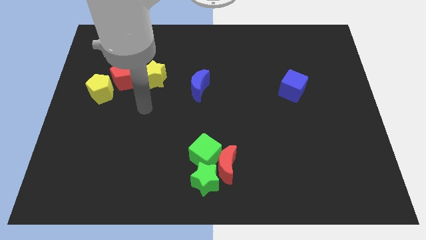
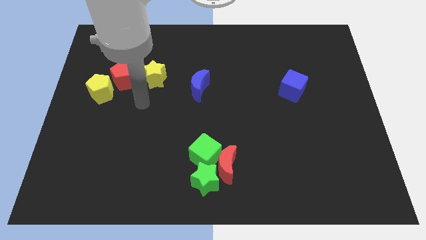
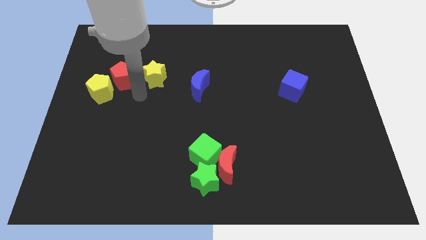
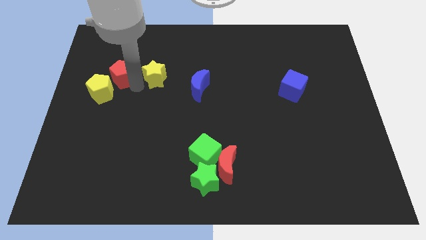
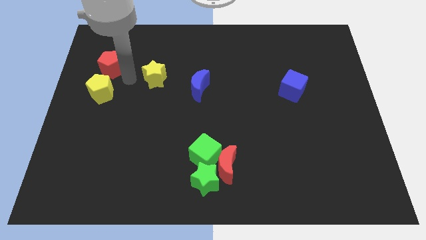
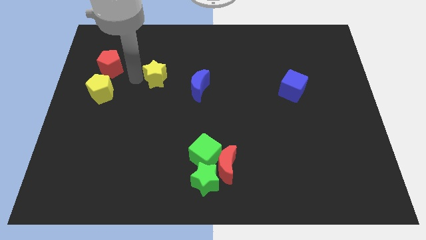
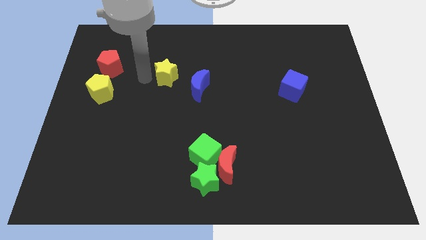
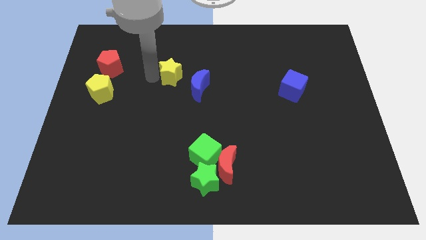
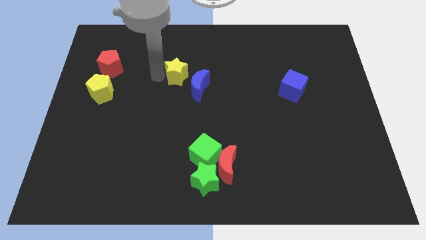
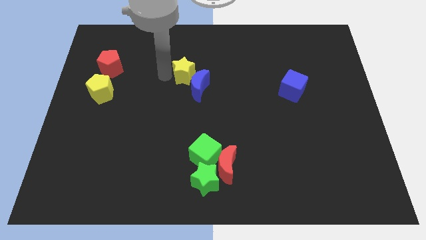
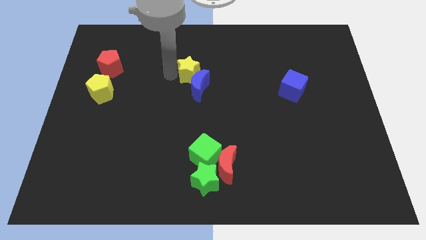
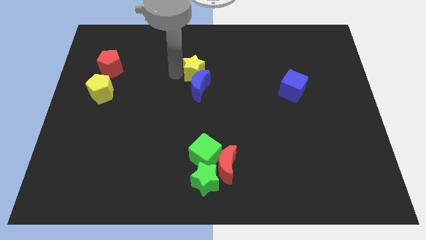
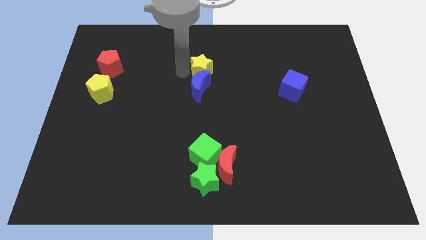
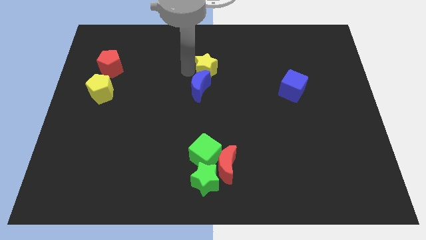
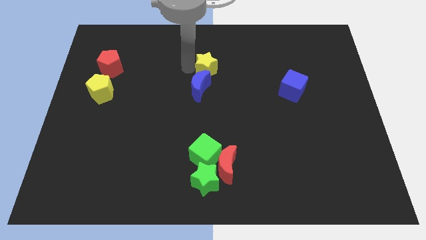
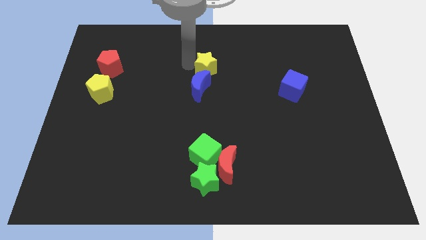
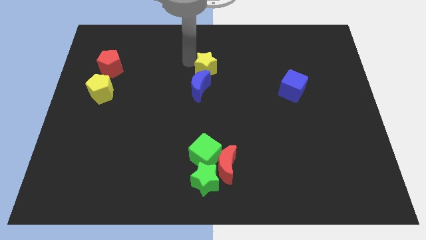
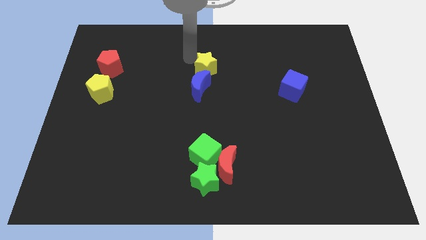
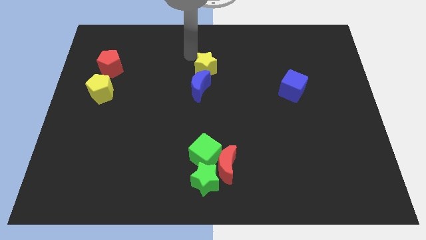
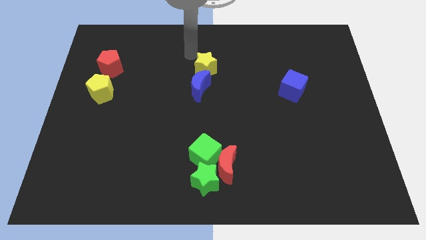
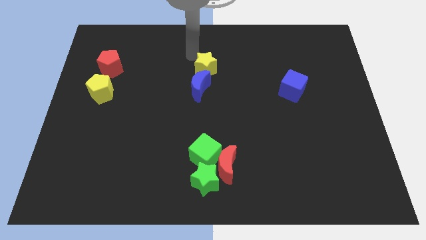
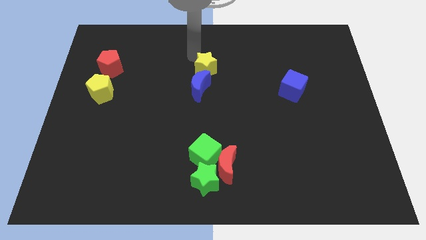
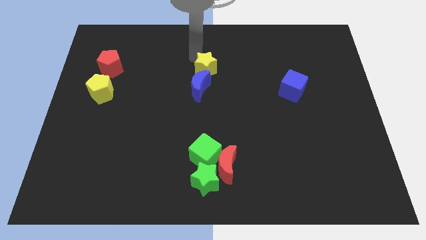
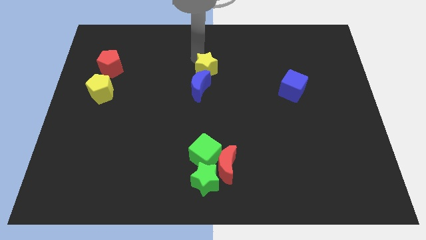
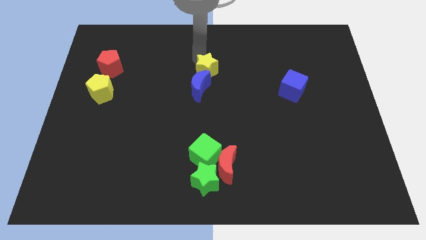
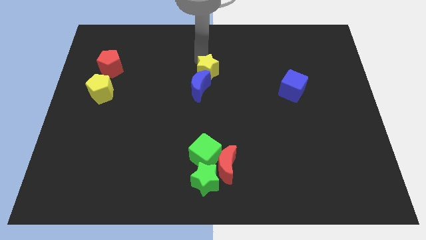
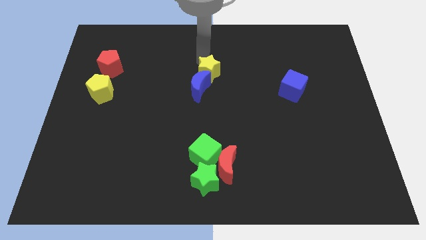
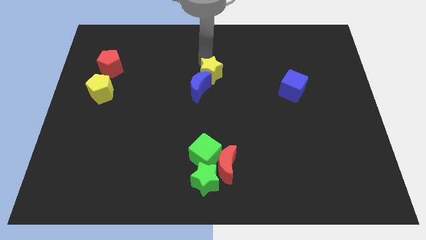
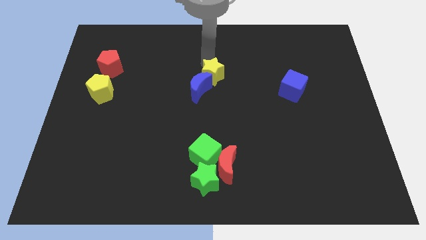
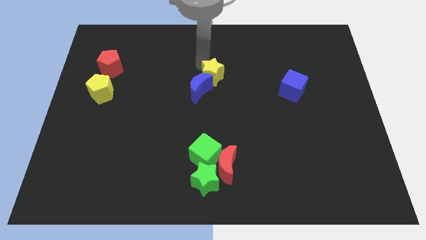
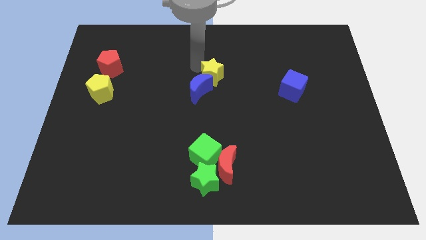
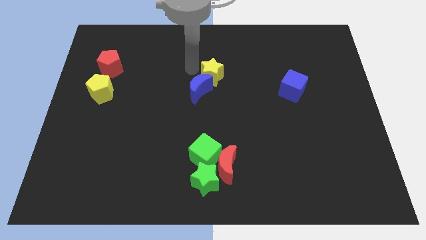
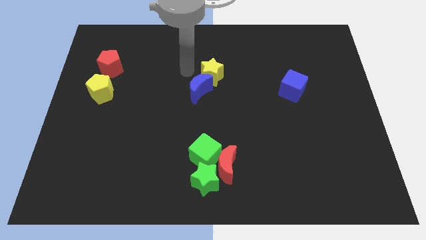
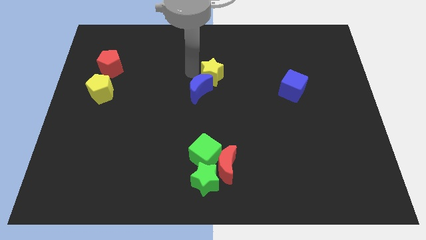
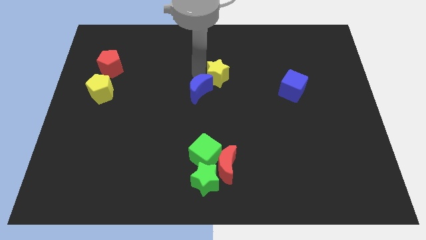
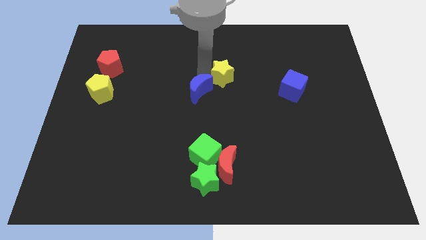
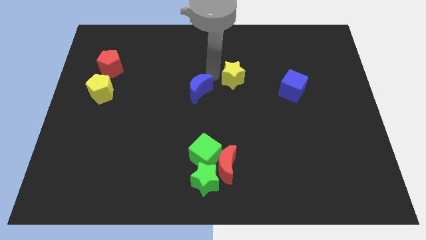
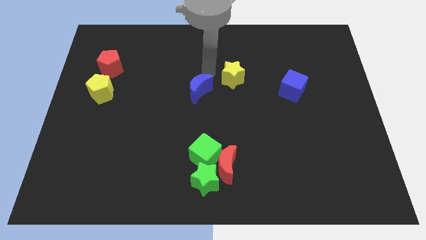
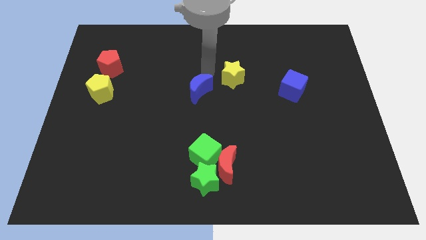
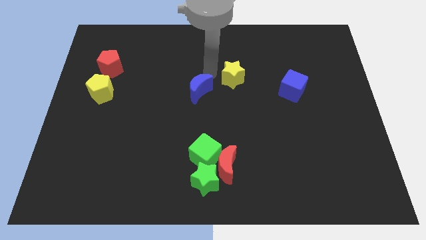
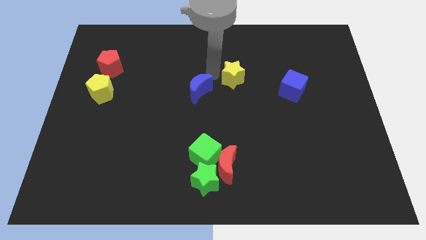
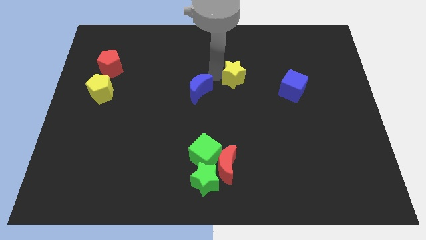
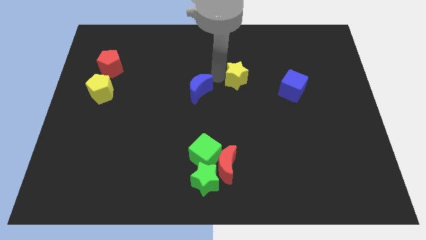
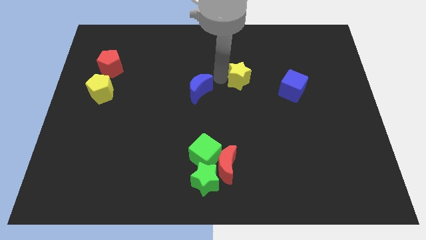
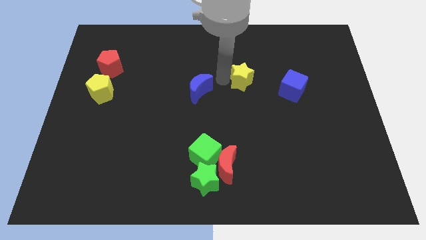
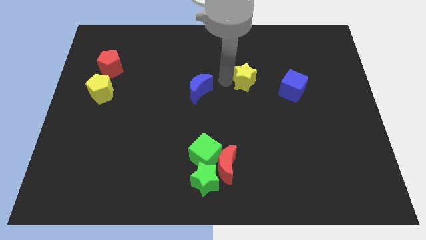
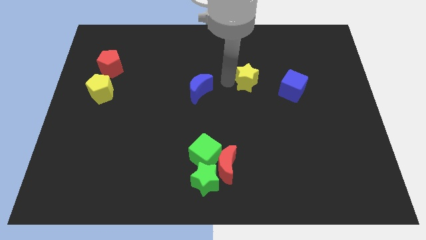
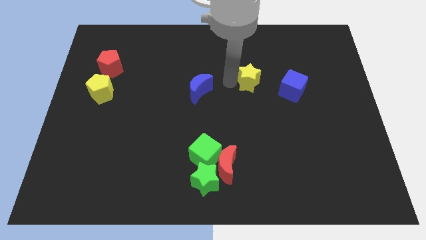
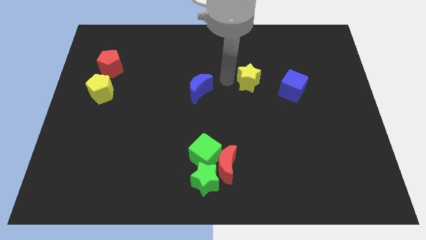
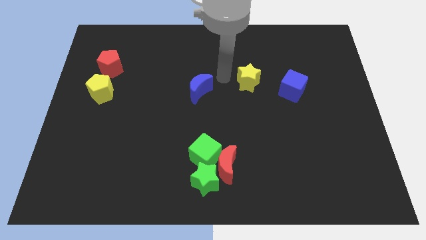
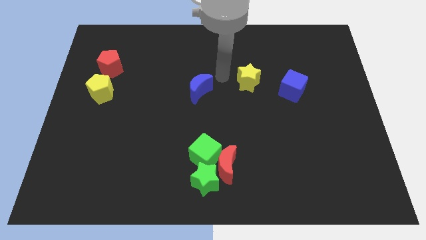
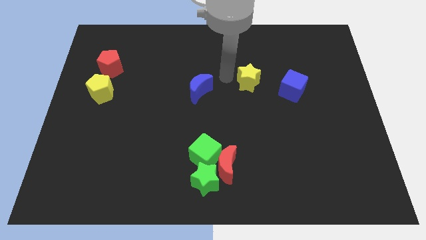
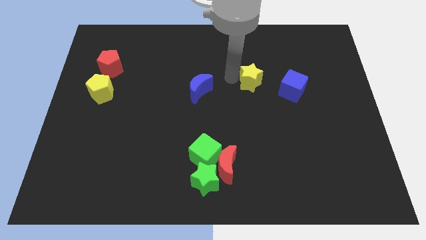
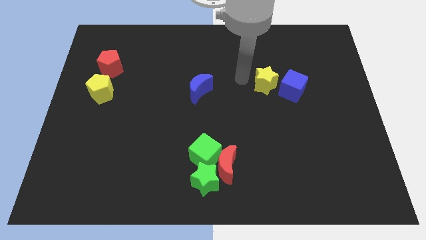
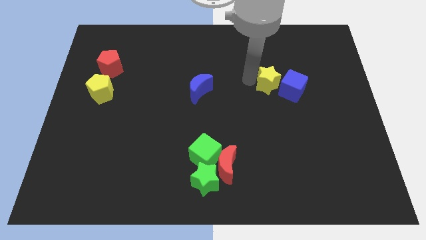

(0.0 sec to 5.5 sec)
push the yellow star towards the blue cube

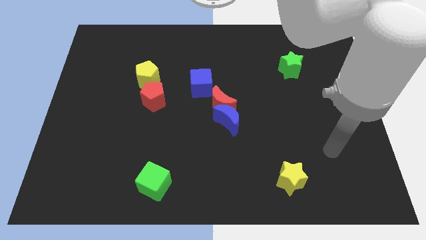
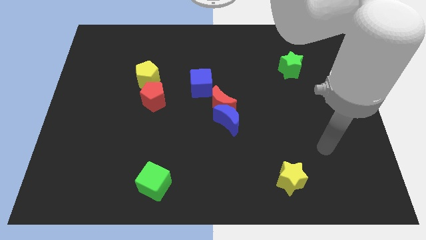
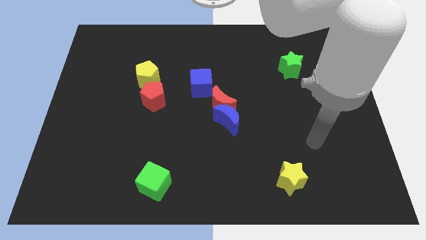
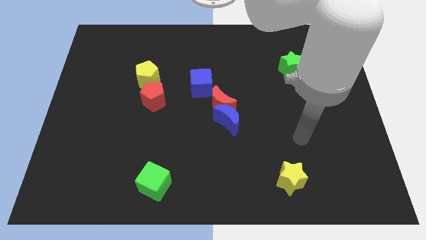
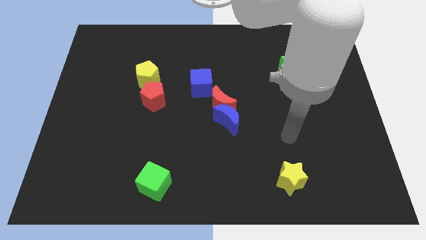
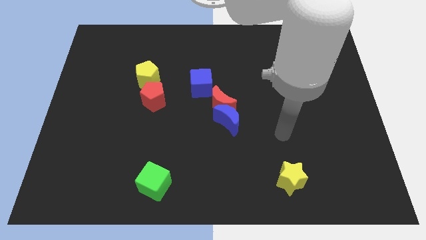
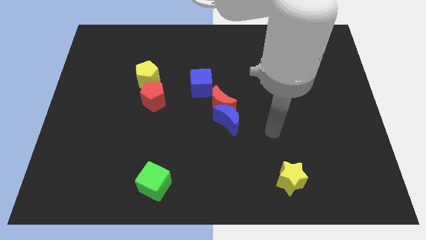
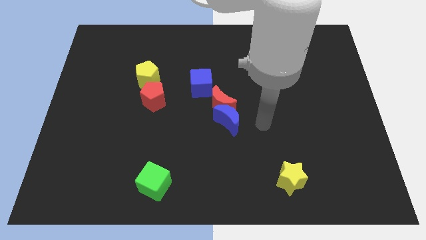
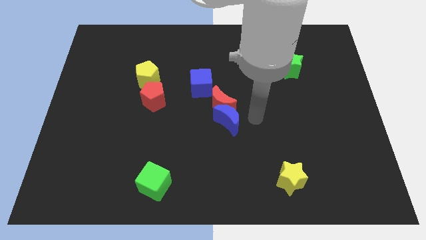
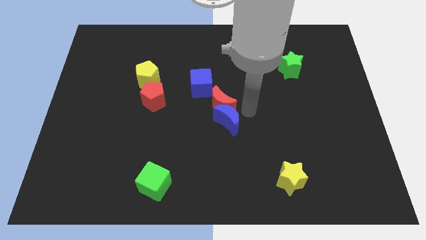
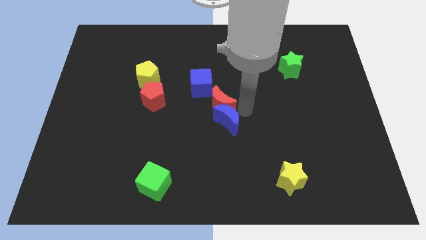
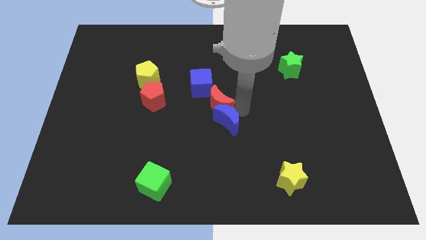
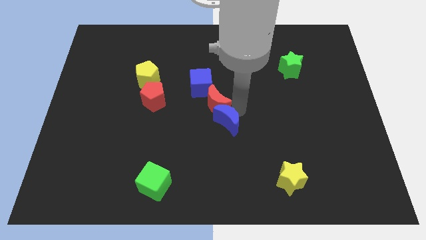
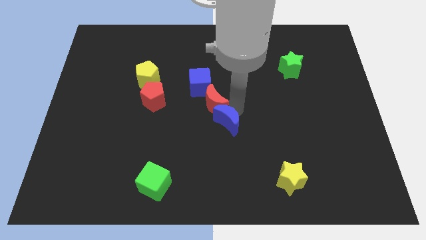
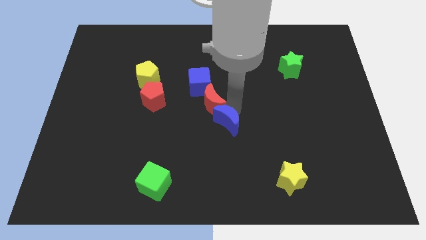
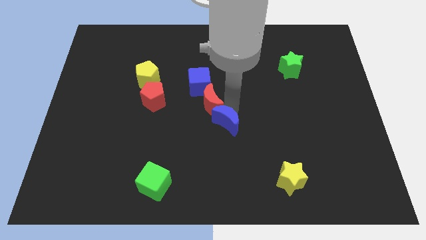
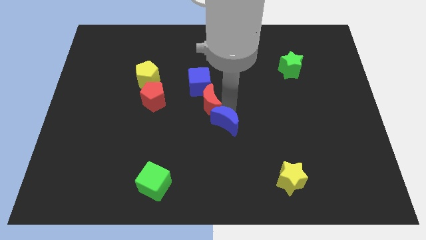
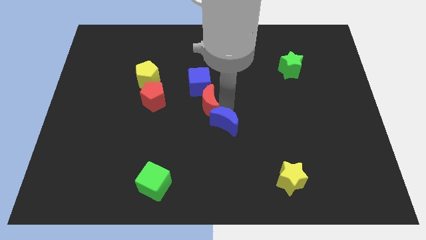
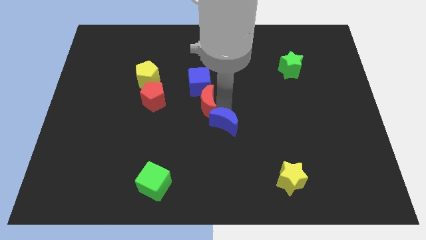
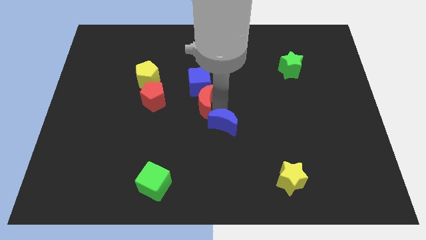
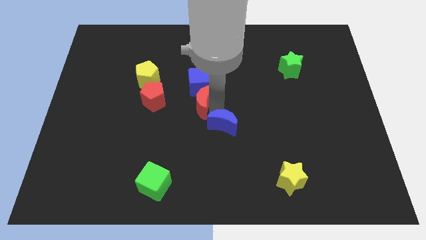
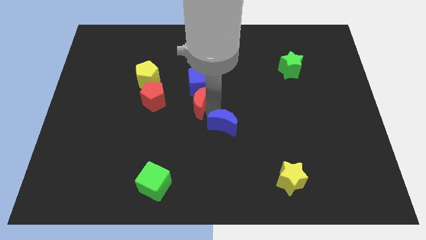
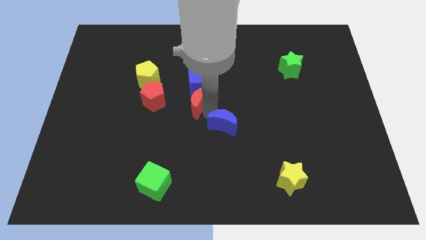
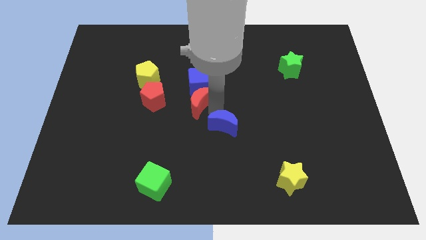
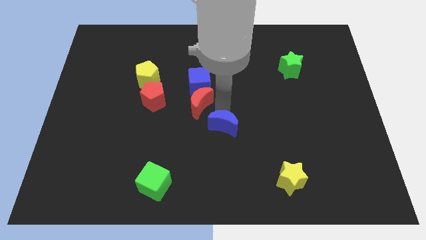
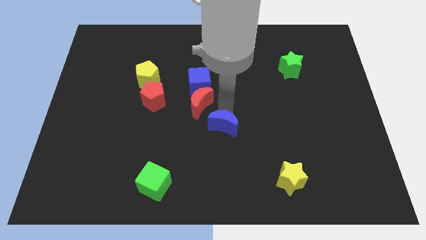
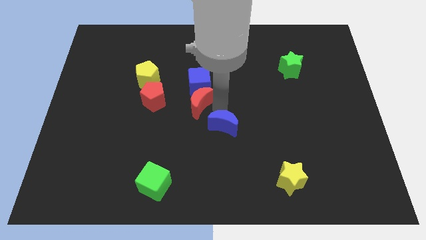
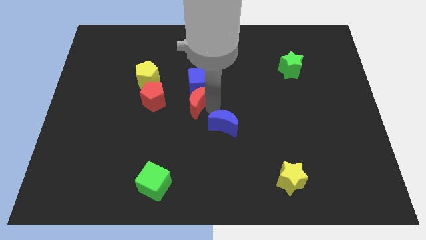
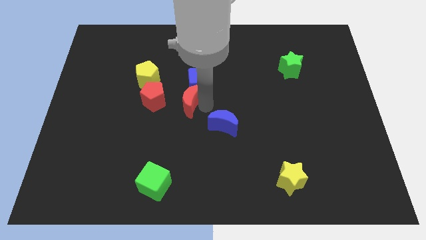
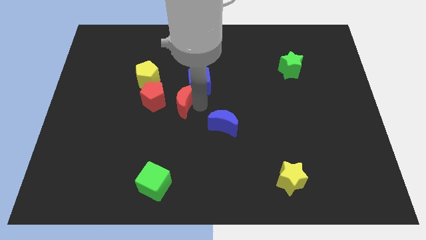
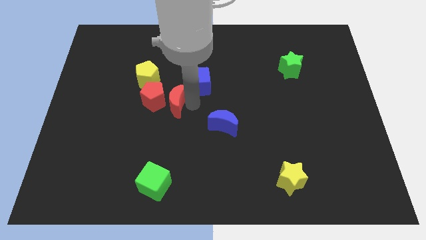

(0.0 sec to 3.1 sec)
put the red moon close to the red pentagon
